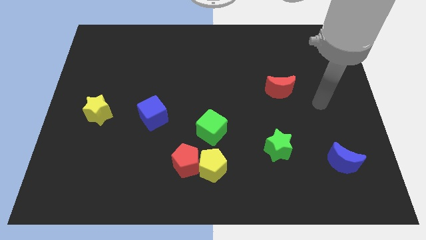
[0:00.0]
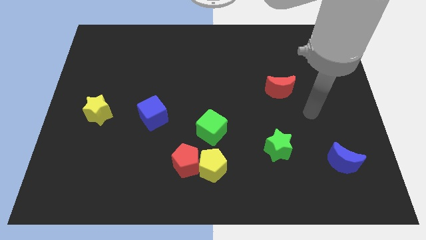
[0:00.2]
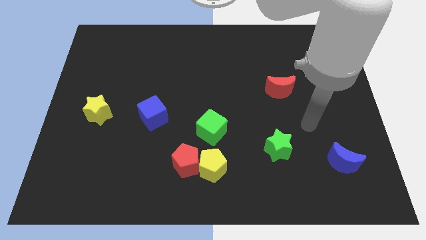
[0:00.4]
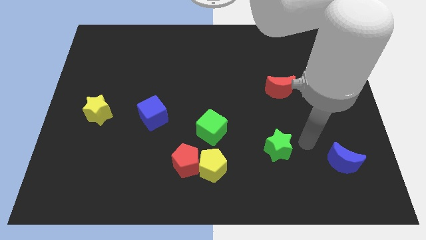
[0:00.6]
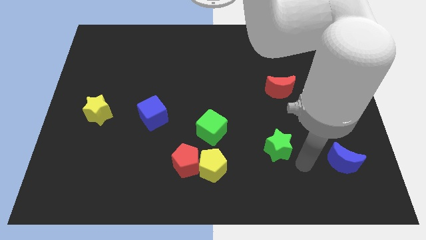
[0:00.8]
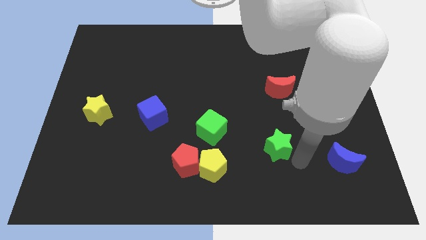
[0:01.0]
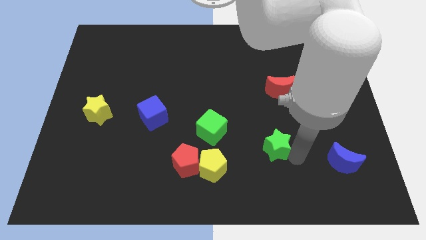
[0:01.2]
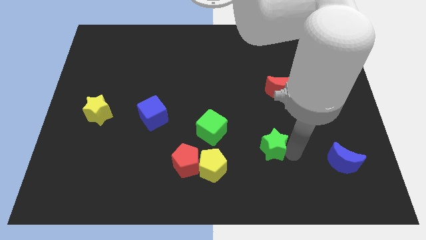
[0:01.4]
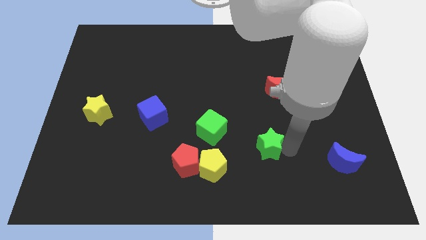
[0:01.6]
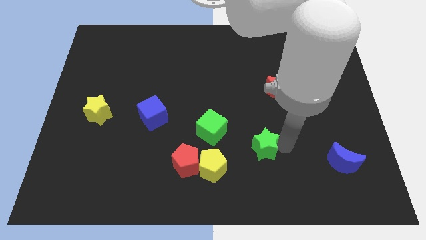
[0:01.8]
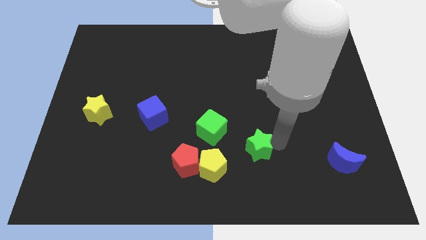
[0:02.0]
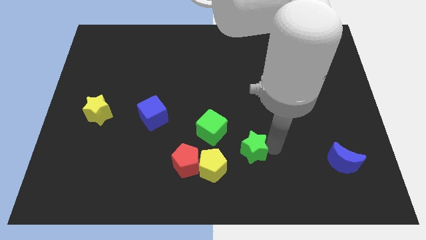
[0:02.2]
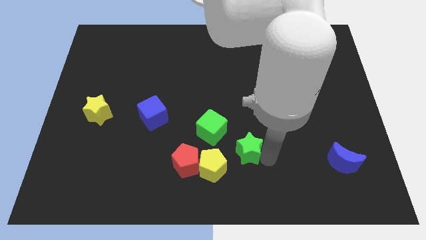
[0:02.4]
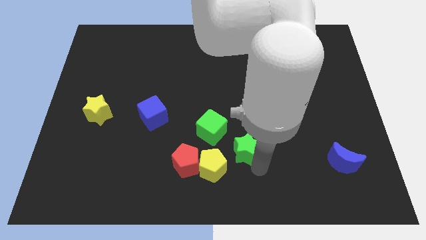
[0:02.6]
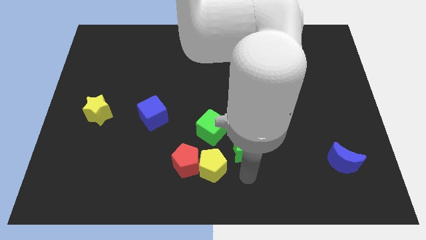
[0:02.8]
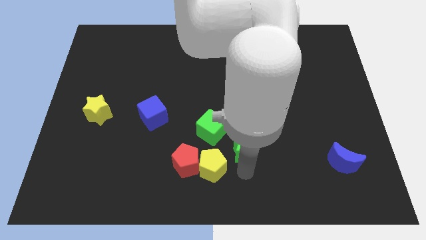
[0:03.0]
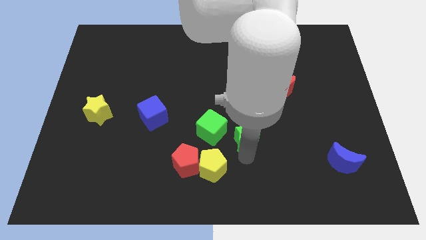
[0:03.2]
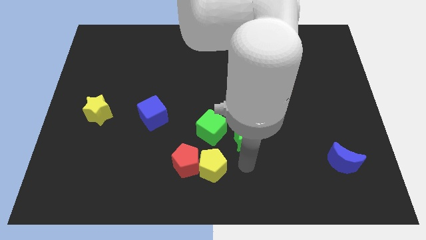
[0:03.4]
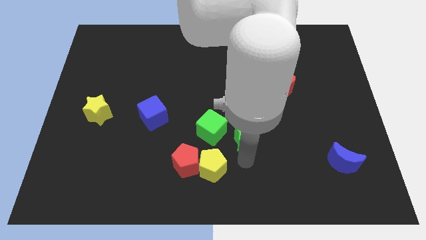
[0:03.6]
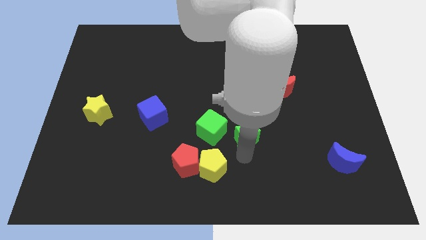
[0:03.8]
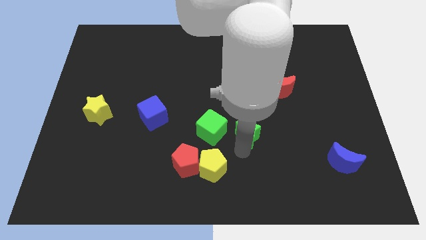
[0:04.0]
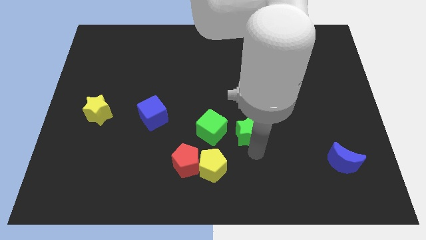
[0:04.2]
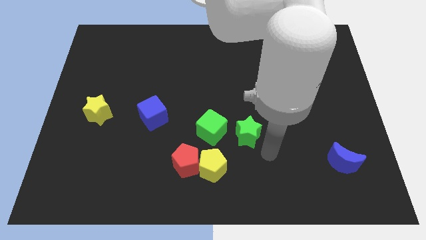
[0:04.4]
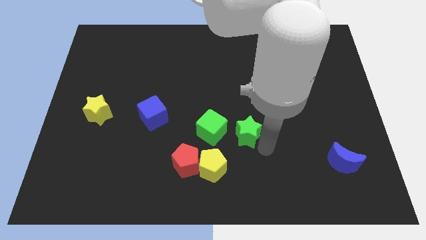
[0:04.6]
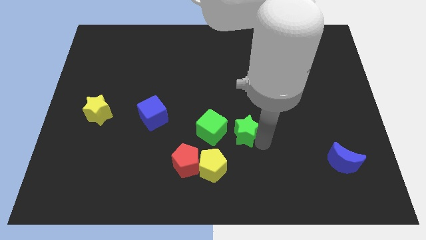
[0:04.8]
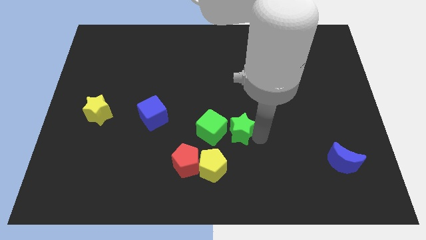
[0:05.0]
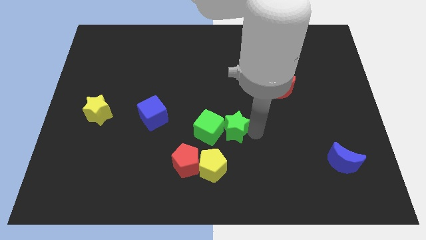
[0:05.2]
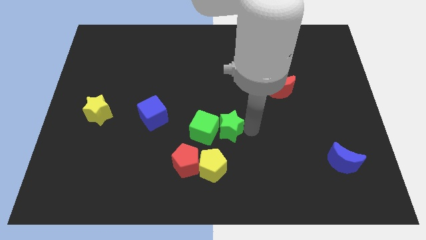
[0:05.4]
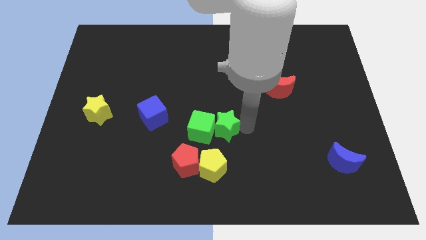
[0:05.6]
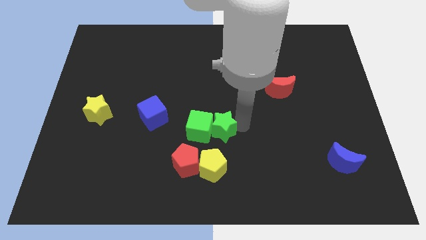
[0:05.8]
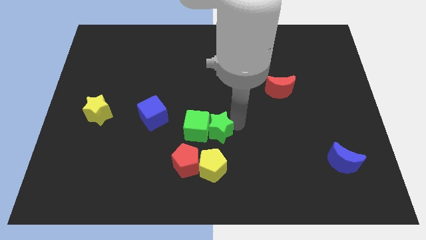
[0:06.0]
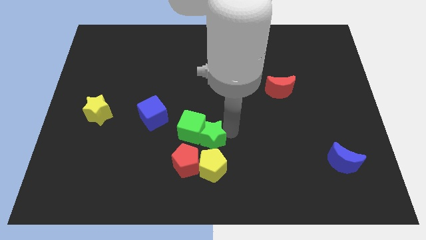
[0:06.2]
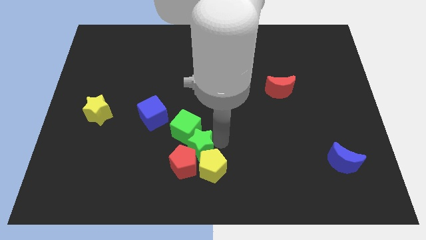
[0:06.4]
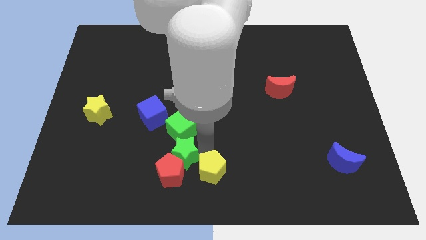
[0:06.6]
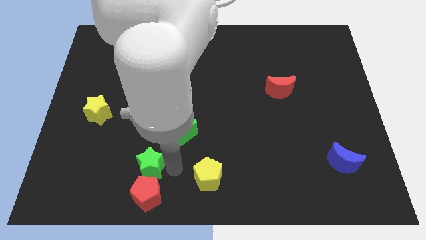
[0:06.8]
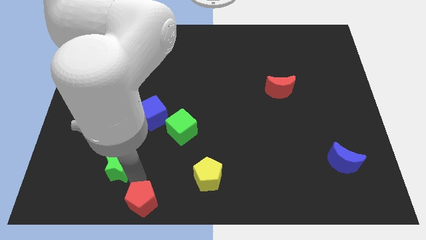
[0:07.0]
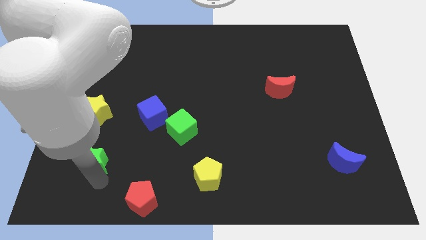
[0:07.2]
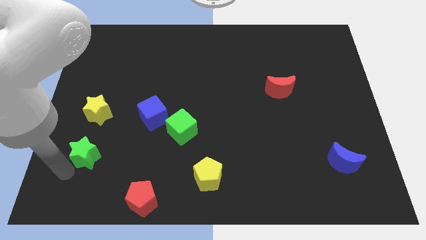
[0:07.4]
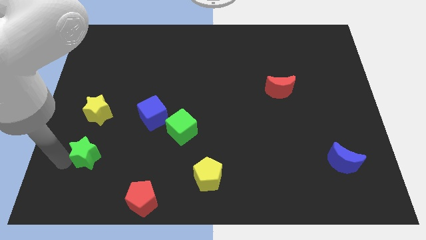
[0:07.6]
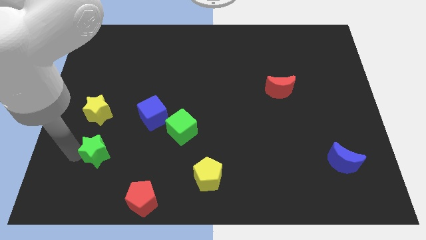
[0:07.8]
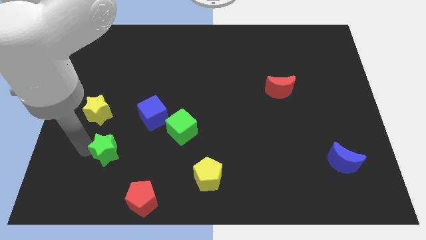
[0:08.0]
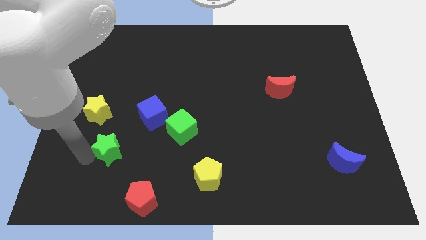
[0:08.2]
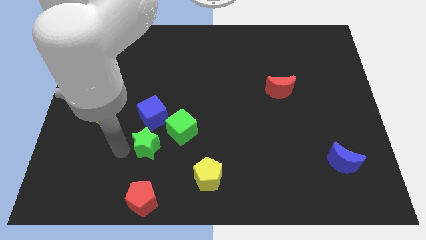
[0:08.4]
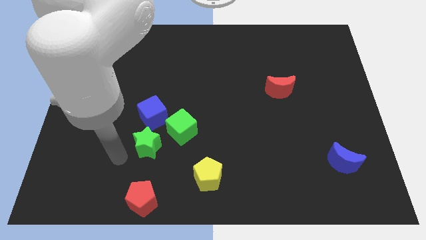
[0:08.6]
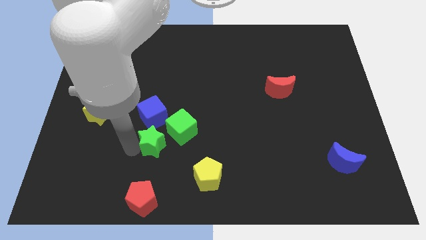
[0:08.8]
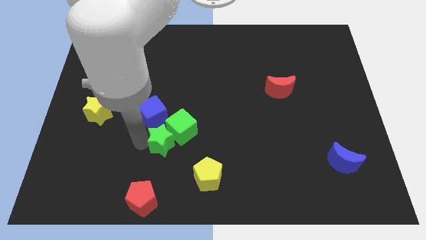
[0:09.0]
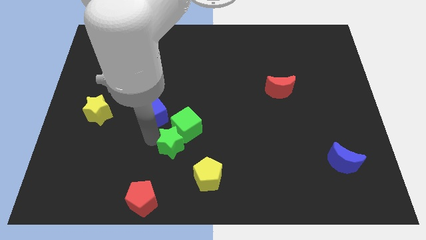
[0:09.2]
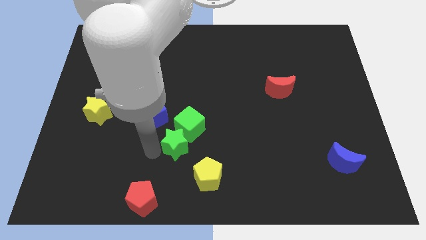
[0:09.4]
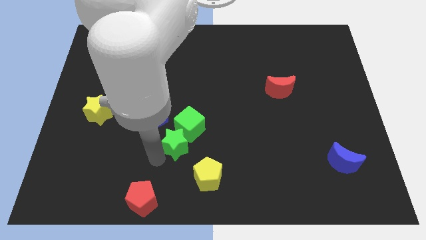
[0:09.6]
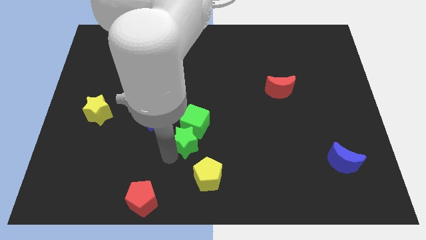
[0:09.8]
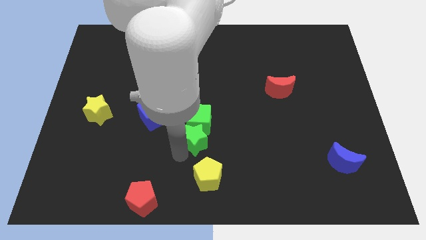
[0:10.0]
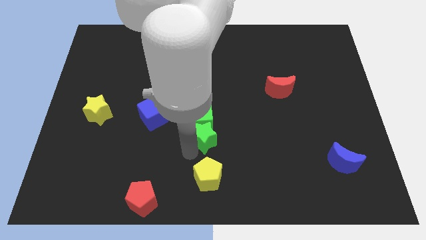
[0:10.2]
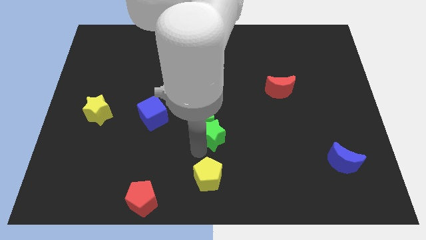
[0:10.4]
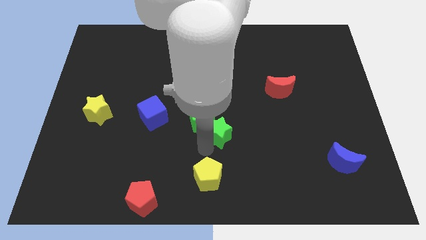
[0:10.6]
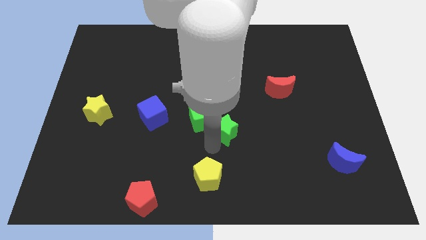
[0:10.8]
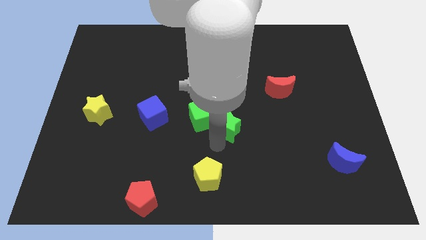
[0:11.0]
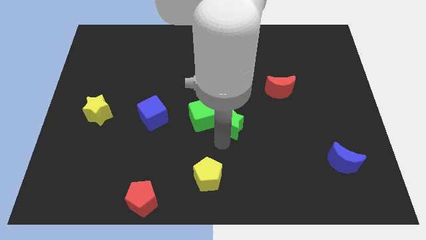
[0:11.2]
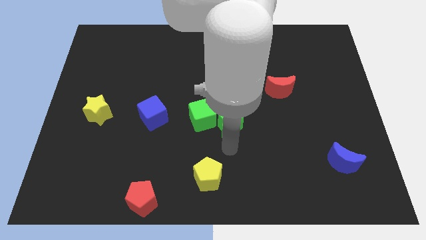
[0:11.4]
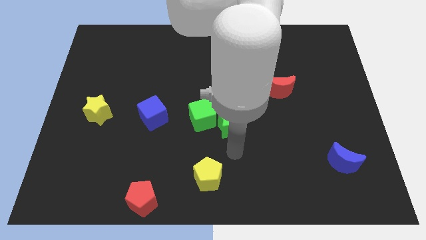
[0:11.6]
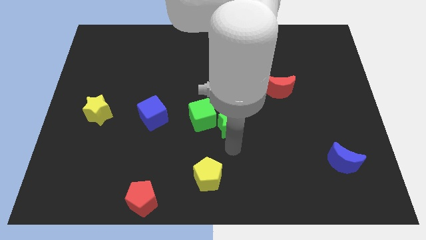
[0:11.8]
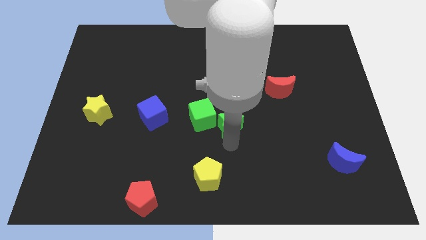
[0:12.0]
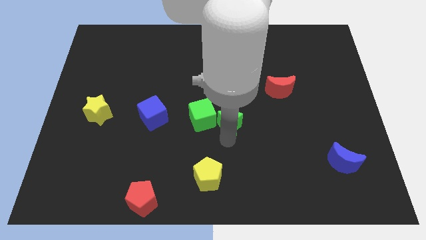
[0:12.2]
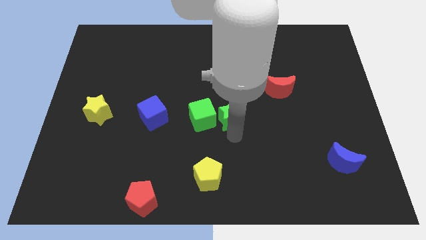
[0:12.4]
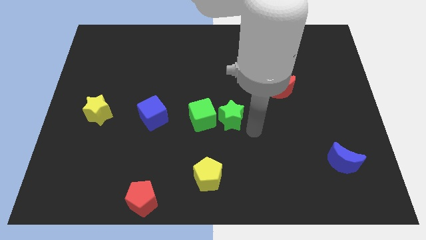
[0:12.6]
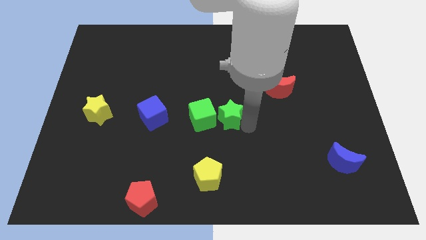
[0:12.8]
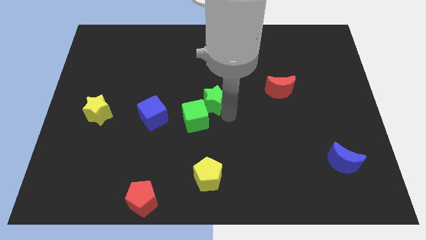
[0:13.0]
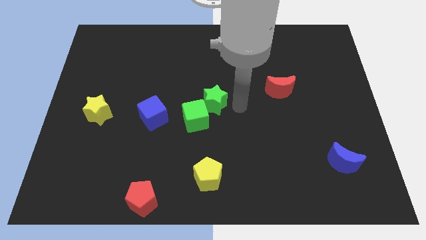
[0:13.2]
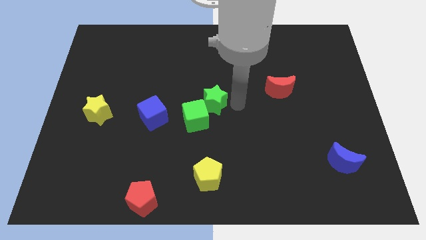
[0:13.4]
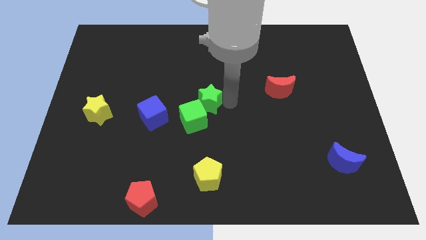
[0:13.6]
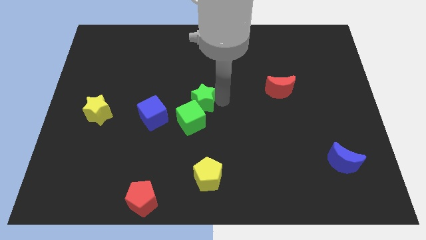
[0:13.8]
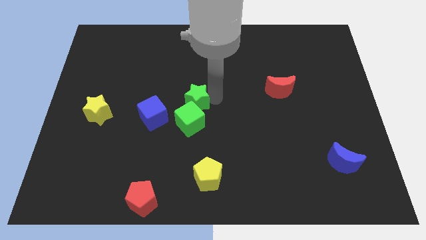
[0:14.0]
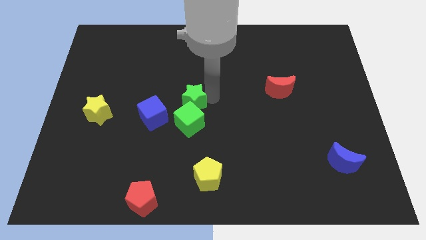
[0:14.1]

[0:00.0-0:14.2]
put the green star to the top left side of the green cube

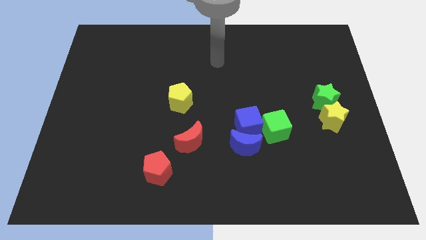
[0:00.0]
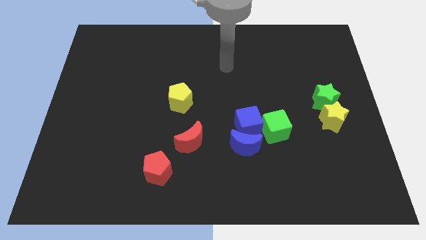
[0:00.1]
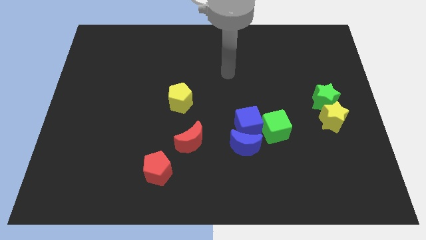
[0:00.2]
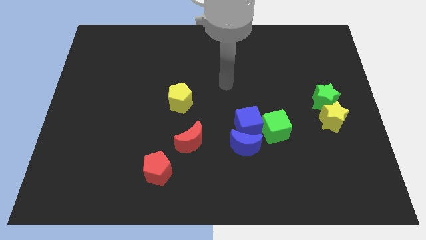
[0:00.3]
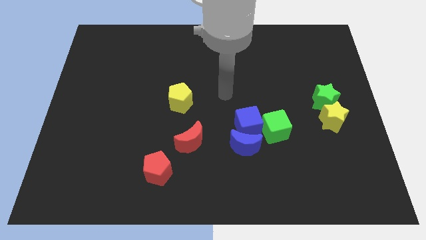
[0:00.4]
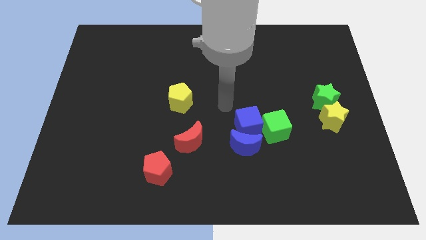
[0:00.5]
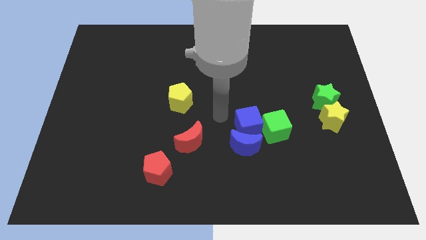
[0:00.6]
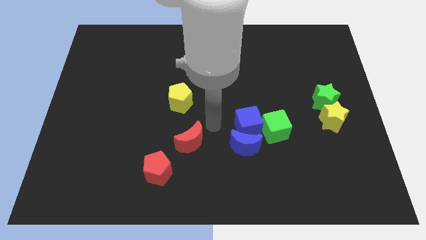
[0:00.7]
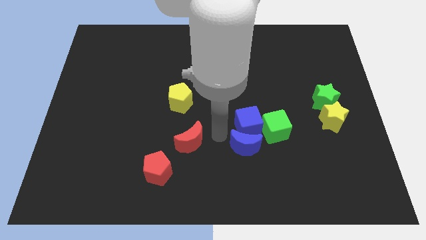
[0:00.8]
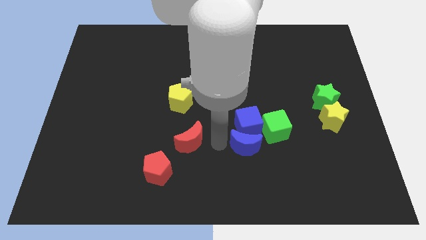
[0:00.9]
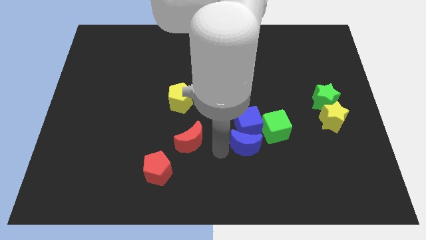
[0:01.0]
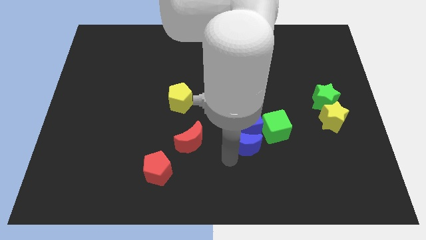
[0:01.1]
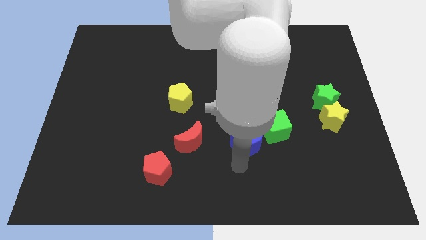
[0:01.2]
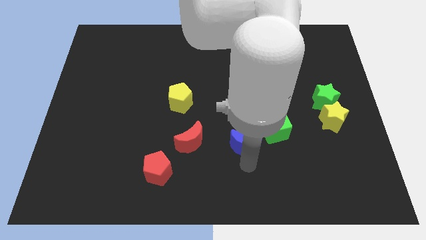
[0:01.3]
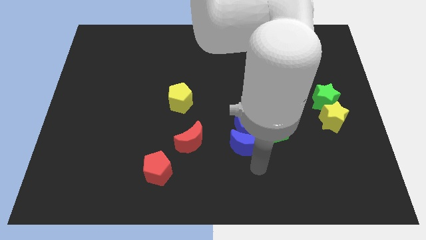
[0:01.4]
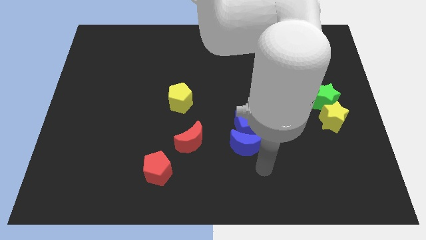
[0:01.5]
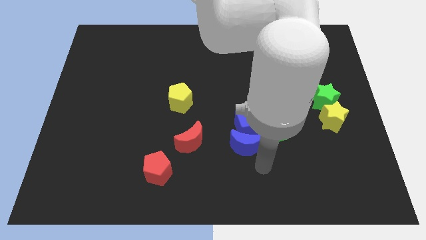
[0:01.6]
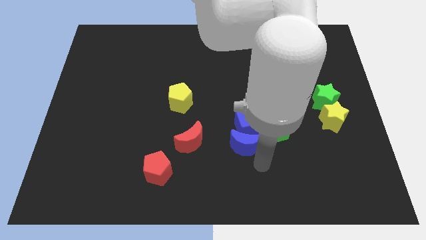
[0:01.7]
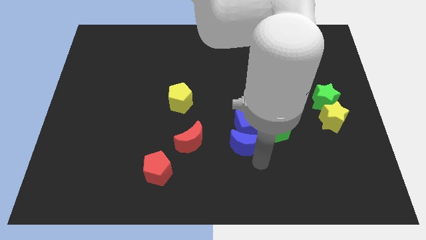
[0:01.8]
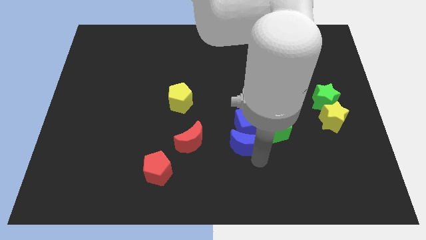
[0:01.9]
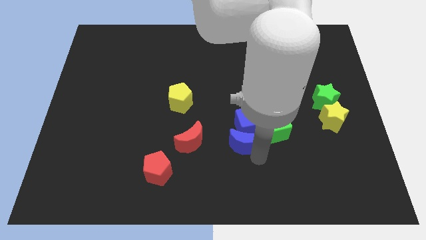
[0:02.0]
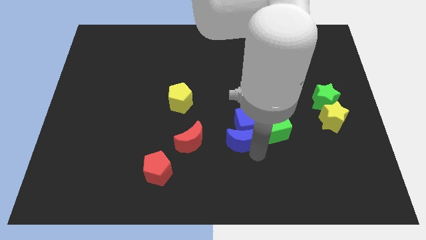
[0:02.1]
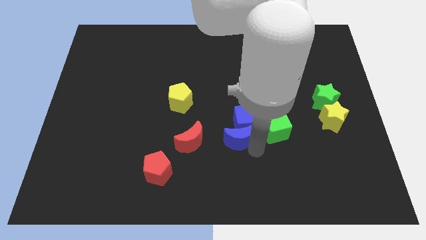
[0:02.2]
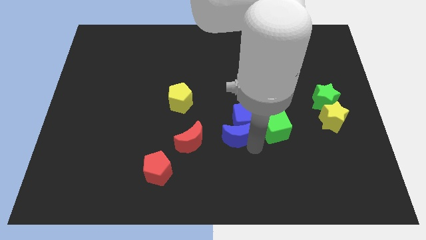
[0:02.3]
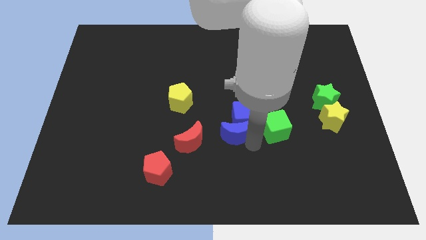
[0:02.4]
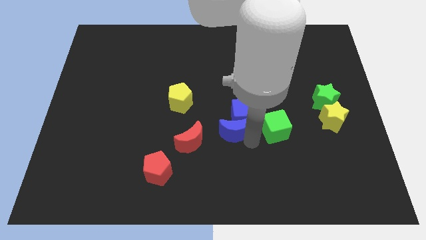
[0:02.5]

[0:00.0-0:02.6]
move the blue moon diagonally up and to the right of the red moon
